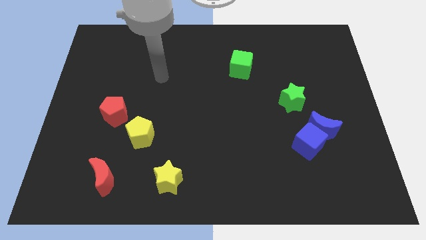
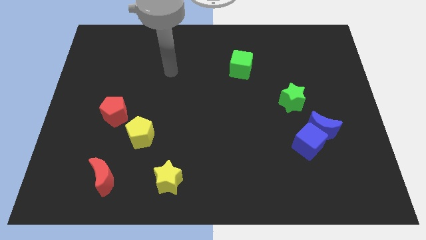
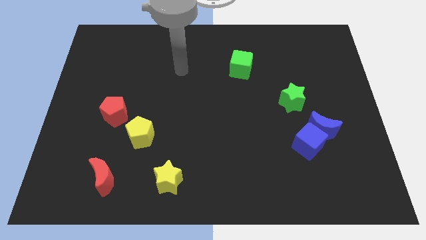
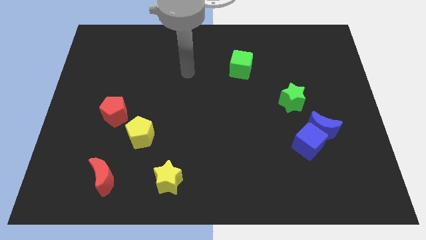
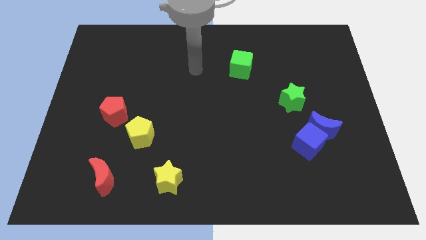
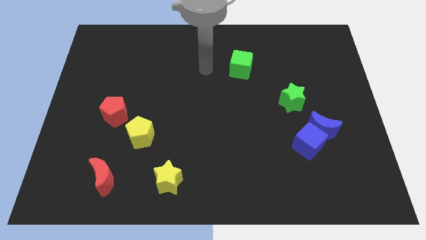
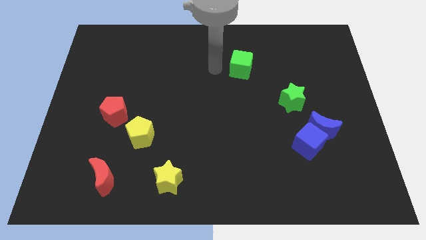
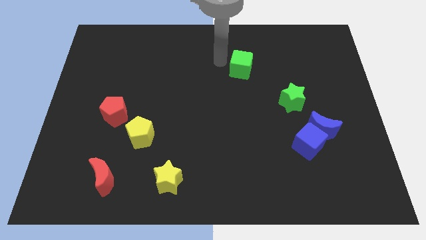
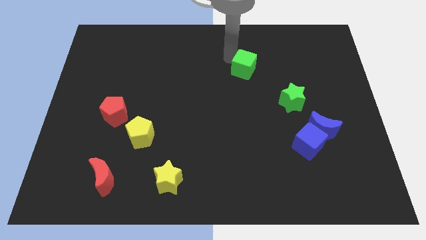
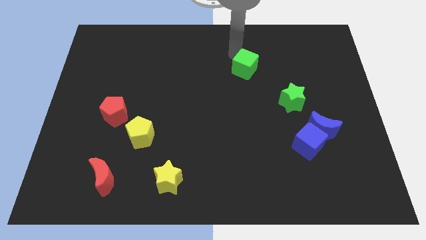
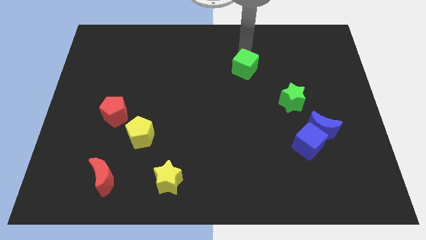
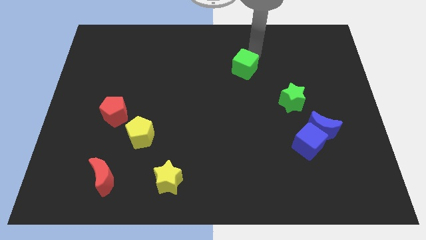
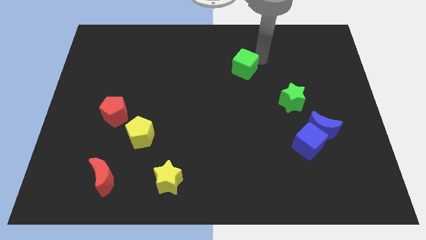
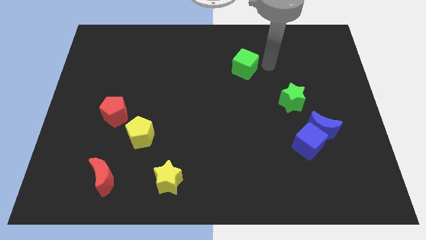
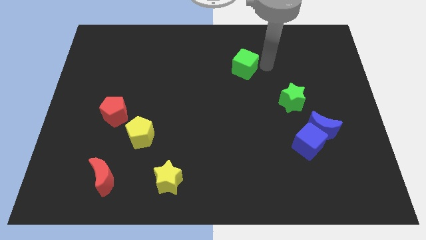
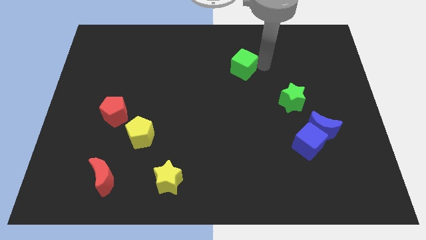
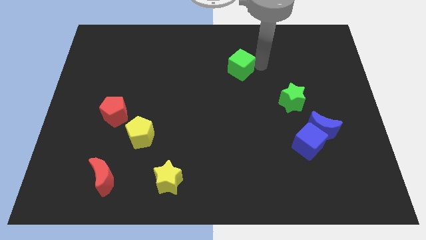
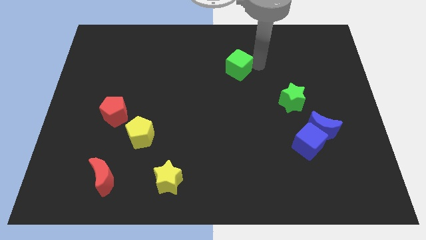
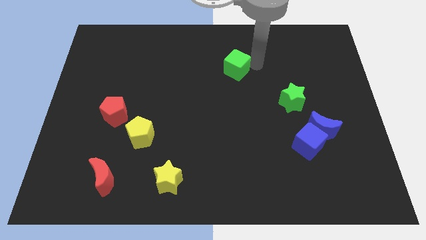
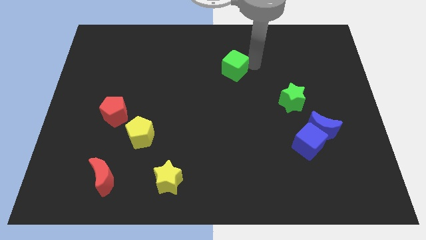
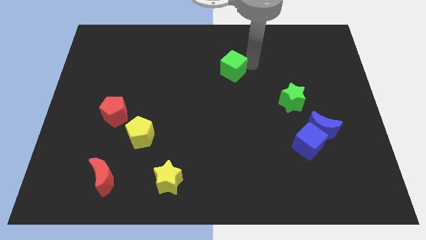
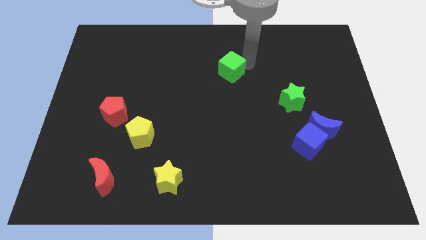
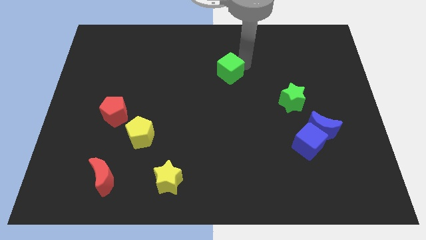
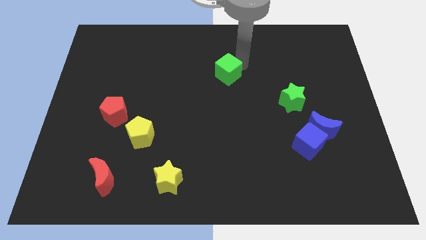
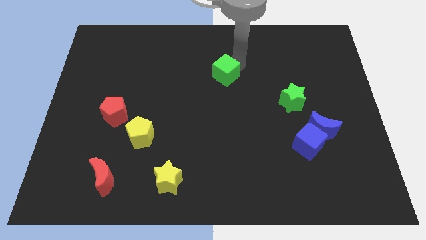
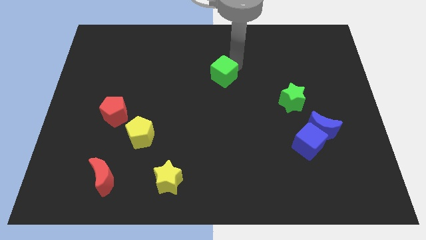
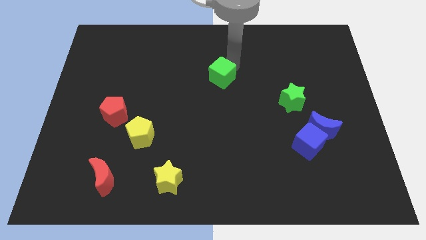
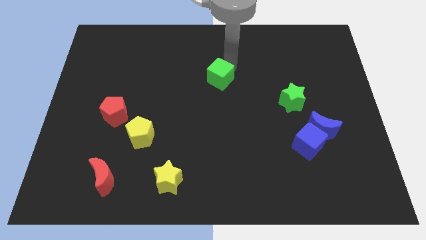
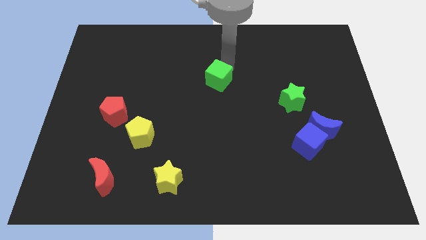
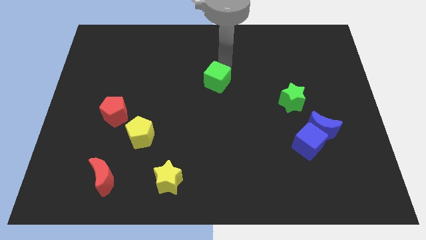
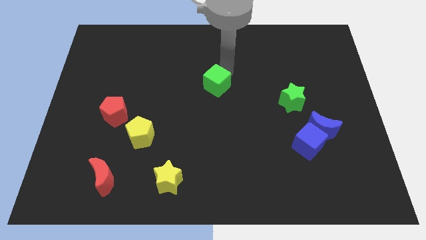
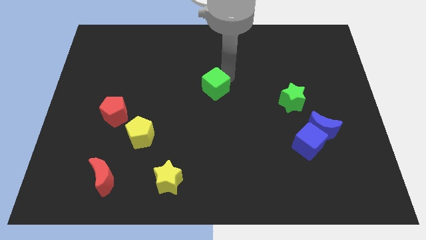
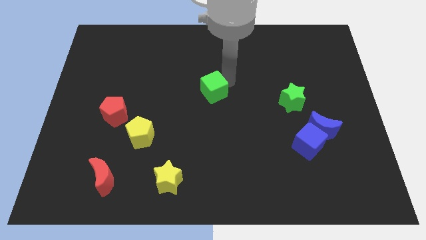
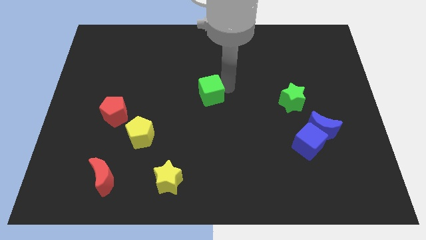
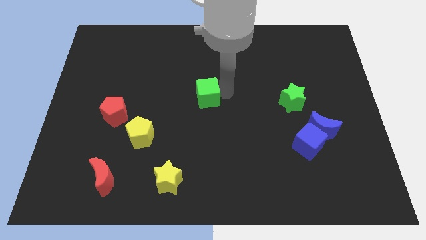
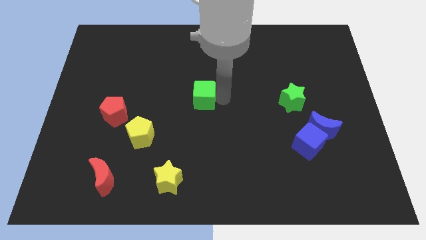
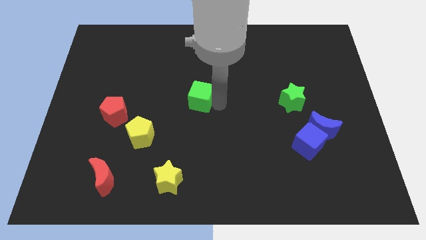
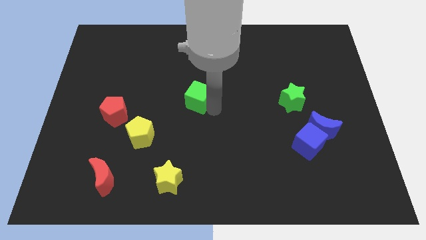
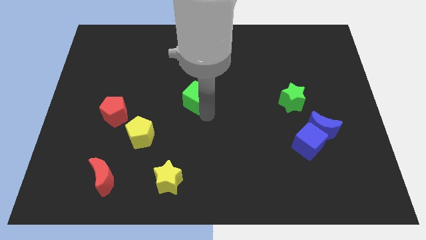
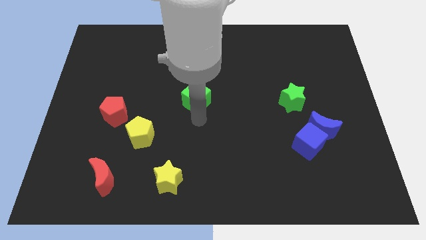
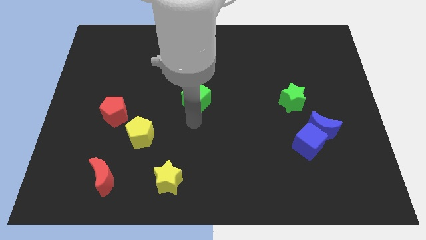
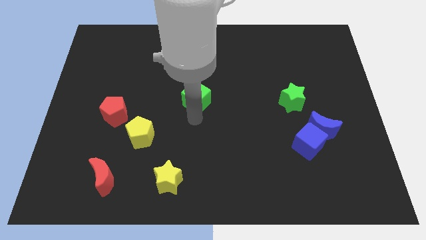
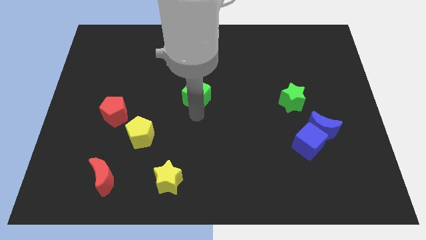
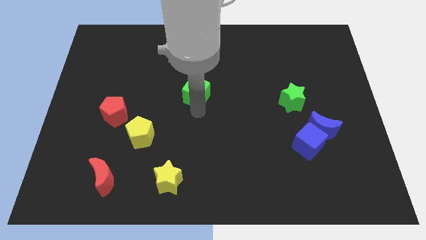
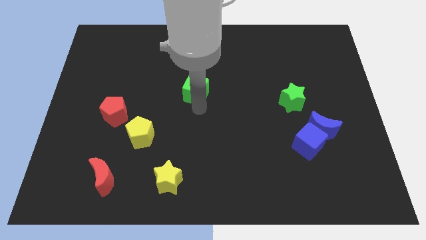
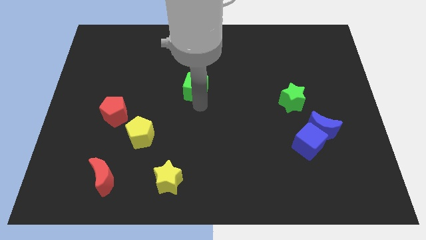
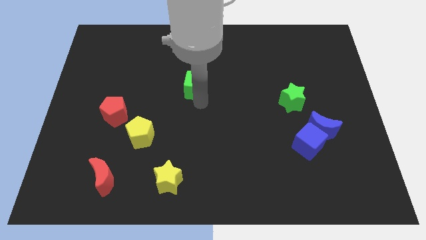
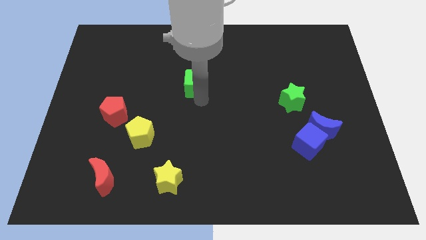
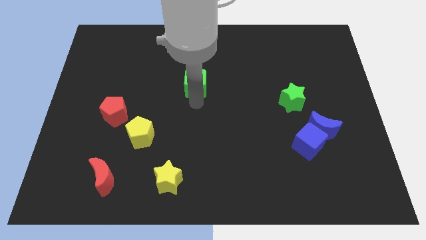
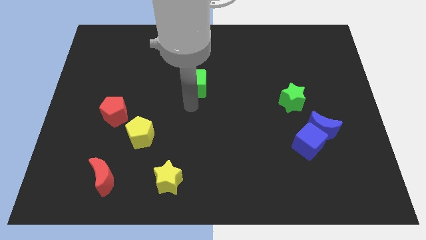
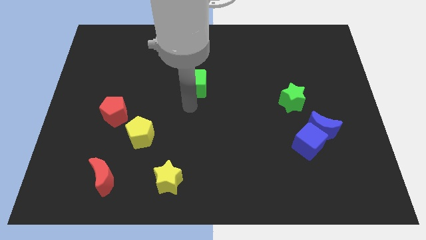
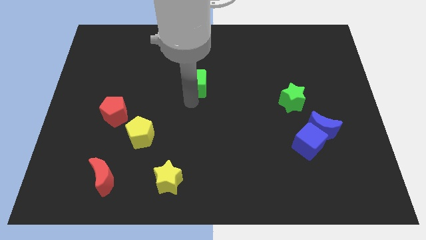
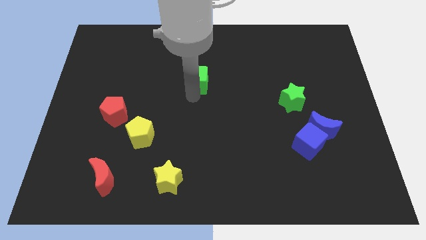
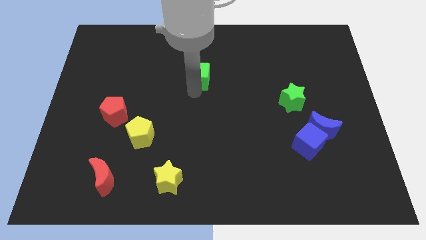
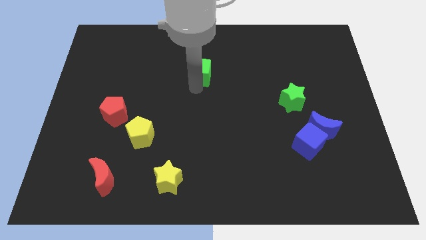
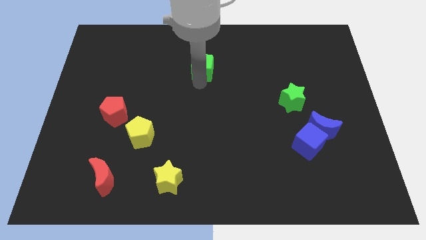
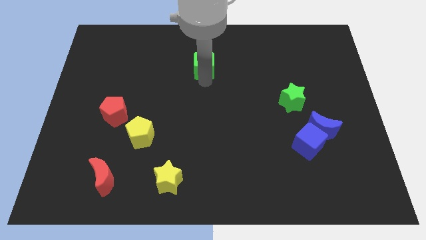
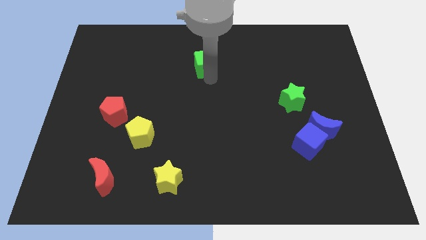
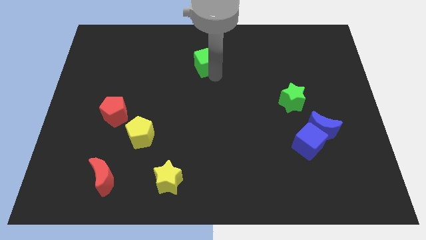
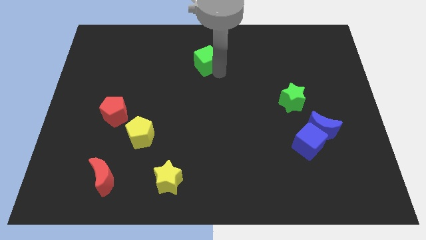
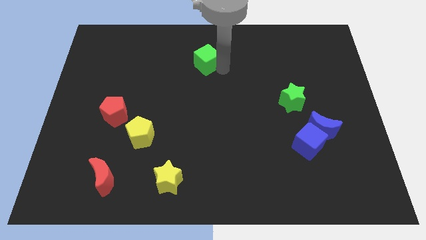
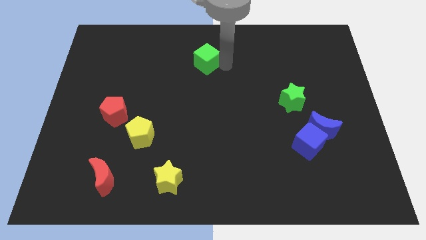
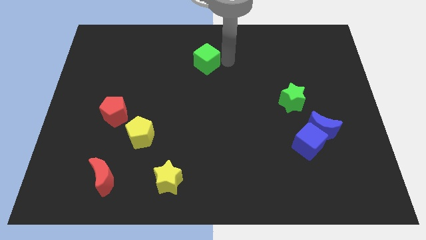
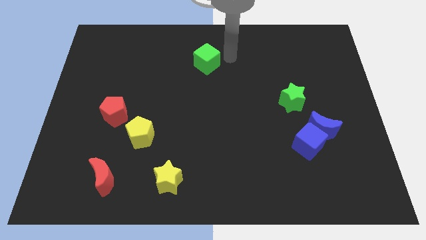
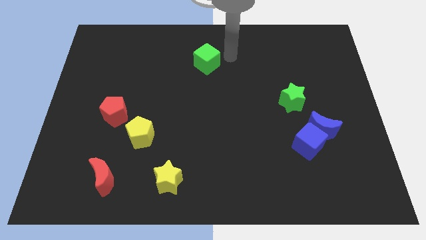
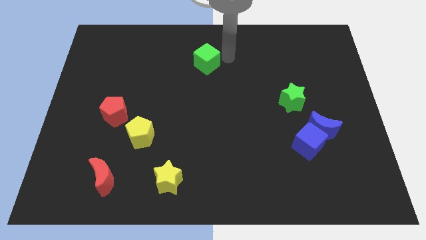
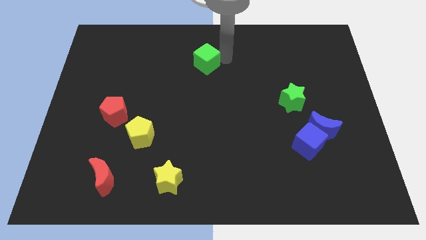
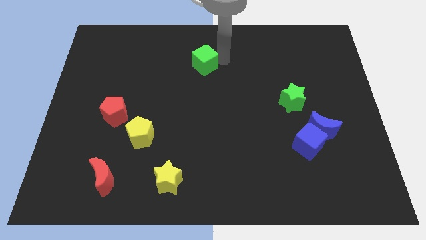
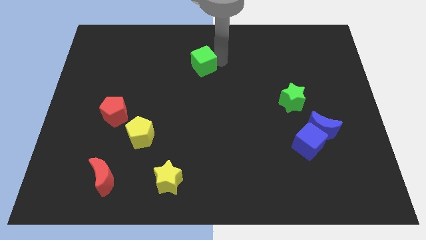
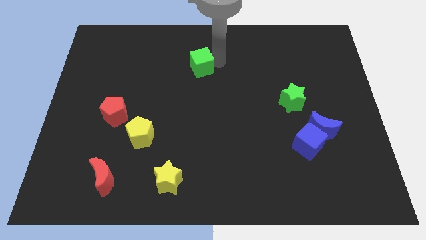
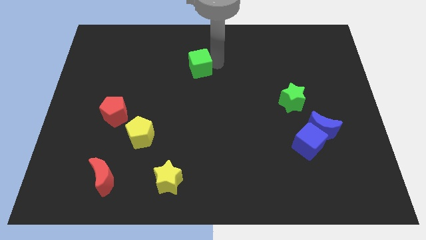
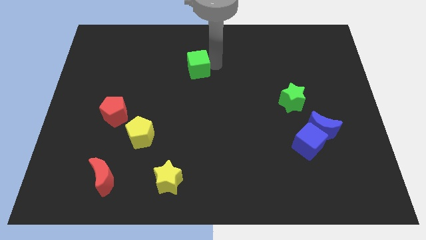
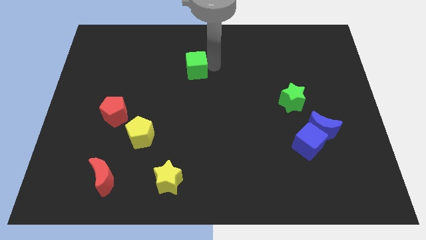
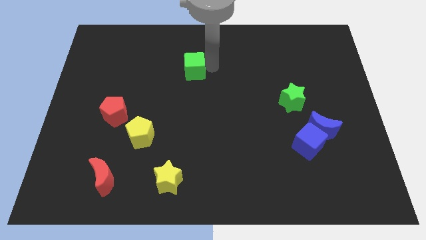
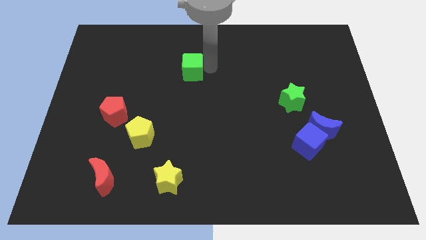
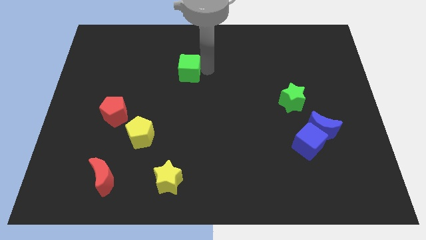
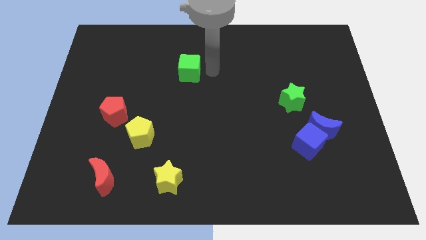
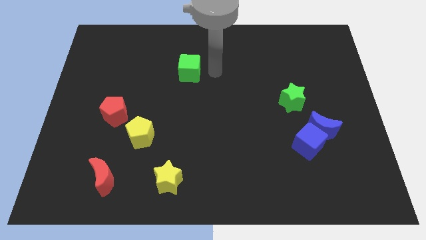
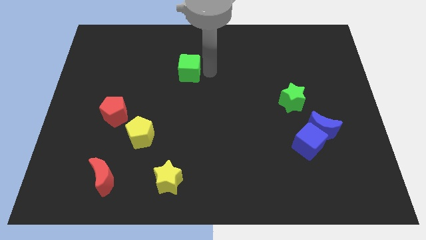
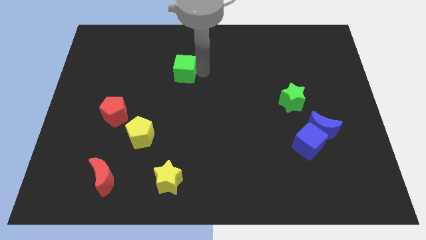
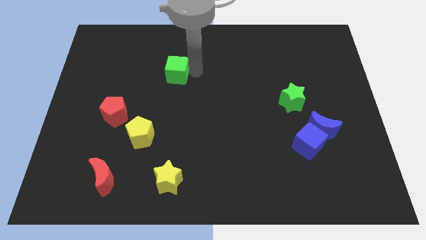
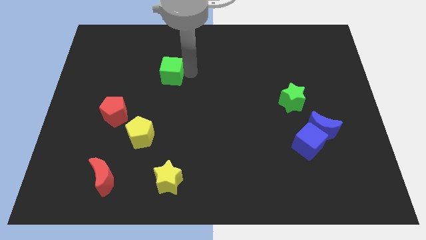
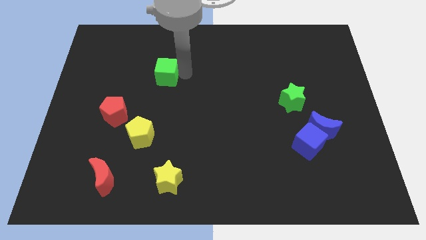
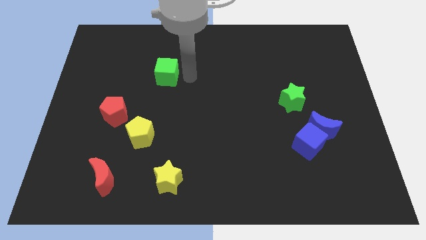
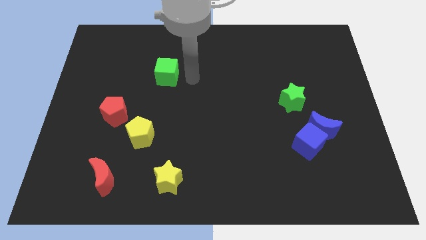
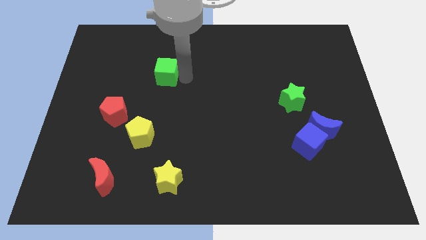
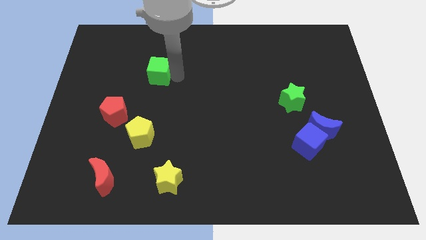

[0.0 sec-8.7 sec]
move the green cube to the left
